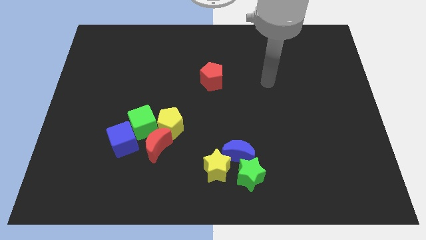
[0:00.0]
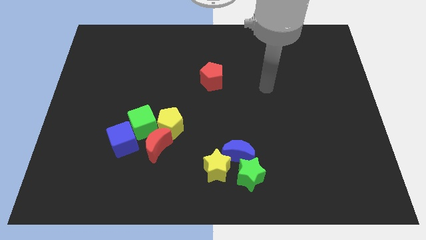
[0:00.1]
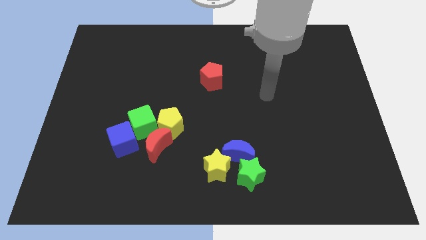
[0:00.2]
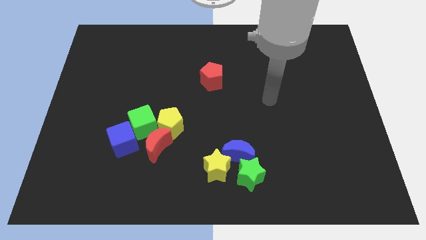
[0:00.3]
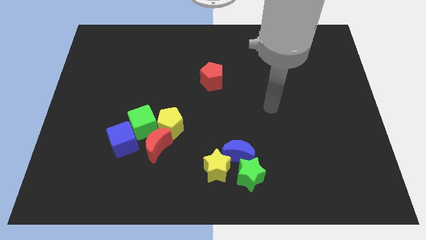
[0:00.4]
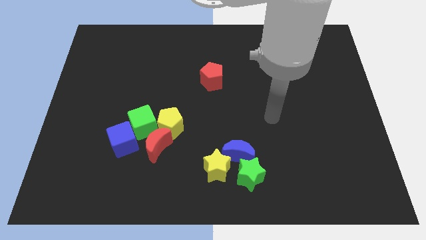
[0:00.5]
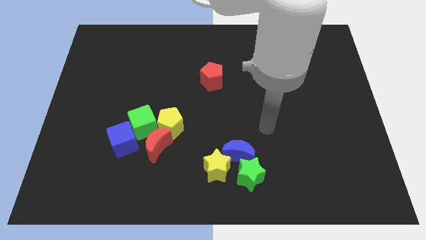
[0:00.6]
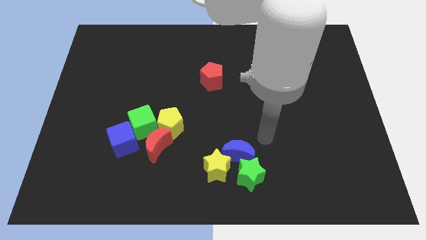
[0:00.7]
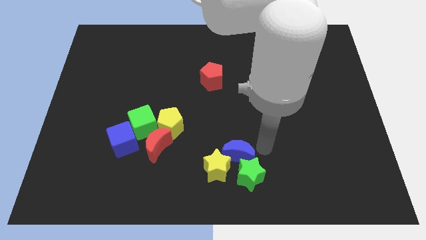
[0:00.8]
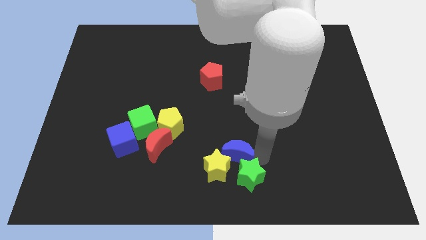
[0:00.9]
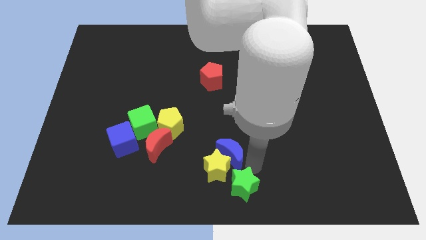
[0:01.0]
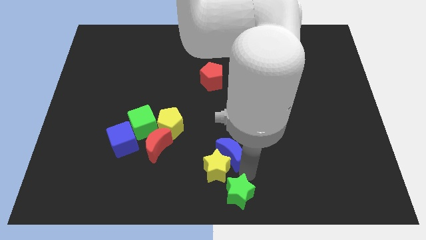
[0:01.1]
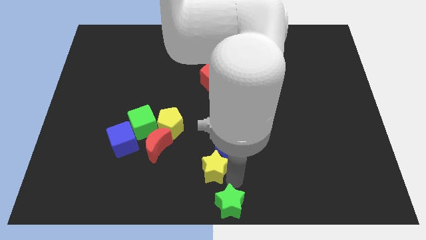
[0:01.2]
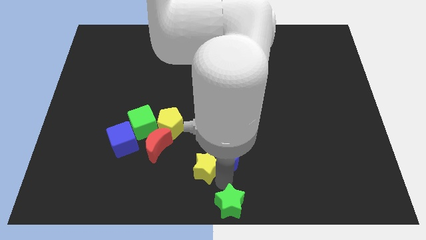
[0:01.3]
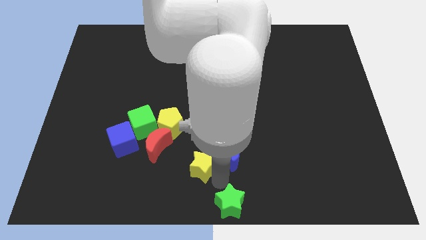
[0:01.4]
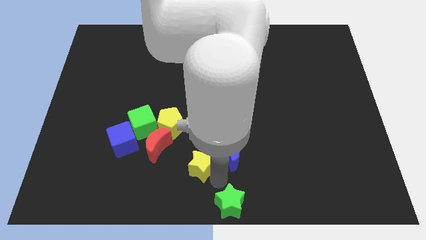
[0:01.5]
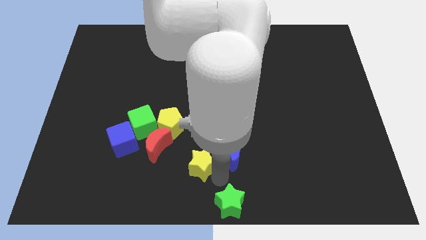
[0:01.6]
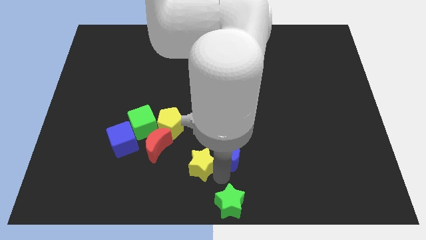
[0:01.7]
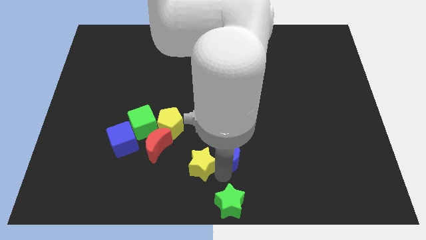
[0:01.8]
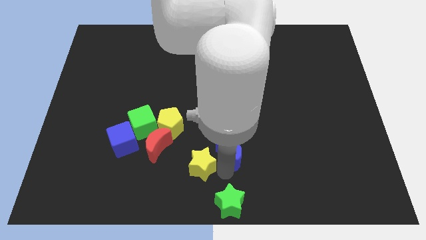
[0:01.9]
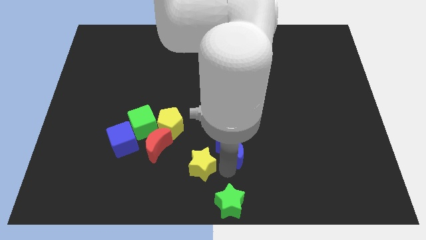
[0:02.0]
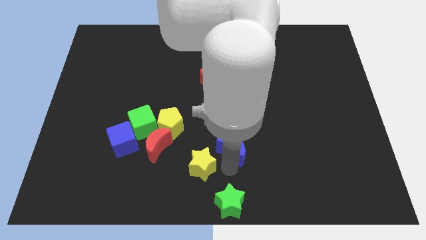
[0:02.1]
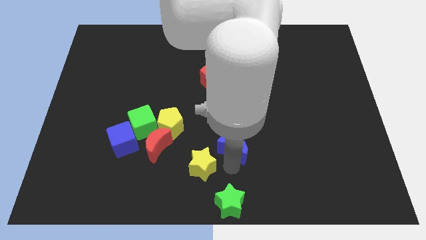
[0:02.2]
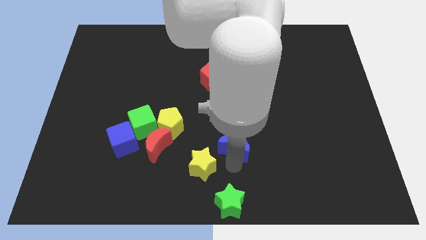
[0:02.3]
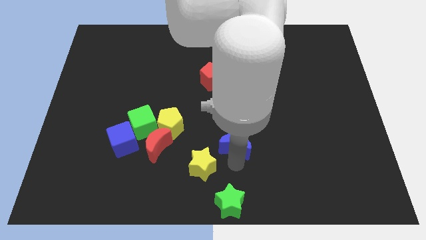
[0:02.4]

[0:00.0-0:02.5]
separate the blue moon from the green star and yellow star

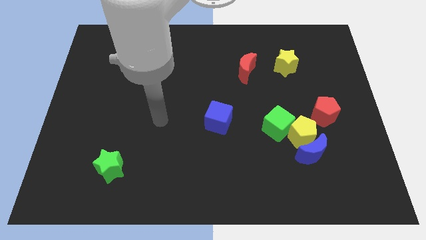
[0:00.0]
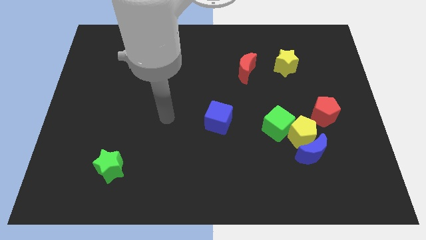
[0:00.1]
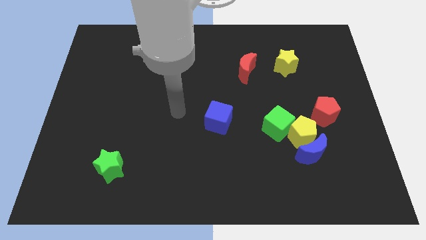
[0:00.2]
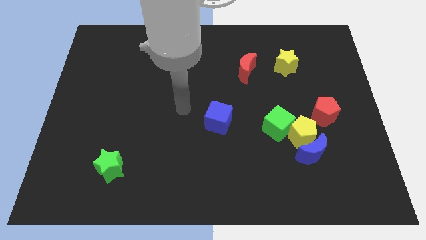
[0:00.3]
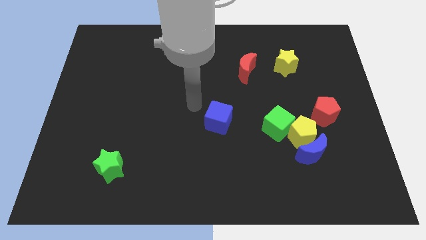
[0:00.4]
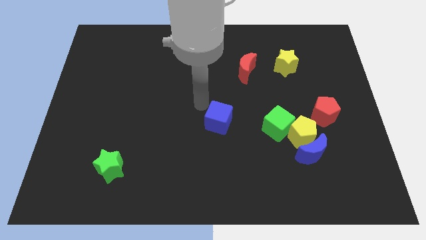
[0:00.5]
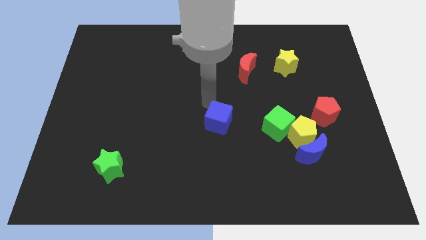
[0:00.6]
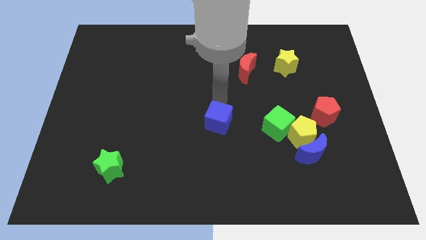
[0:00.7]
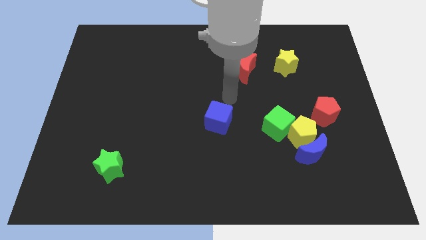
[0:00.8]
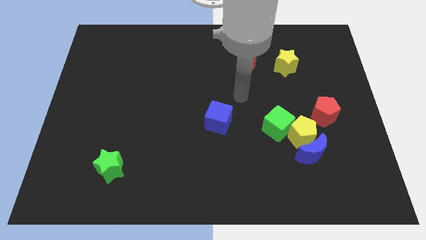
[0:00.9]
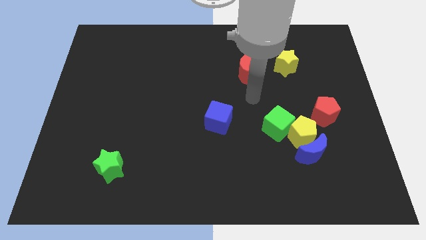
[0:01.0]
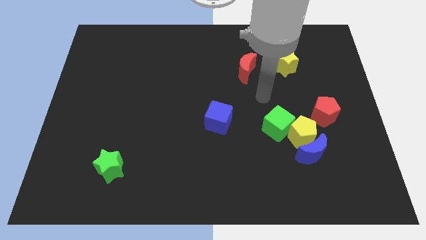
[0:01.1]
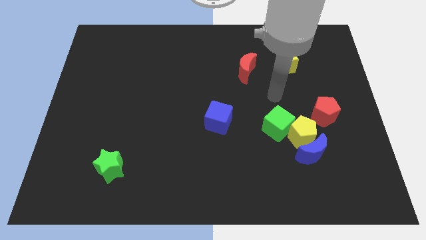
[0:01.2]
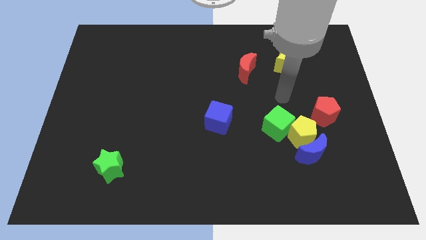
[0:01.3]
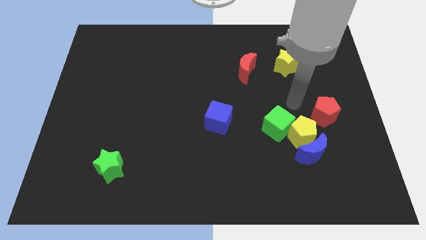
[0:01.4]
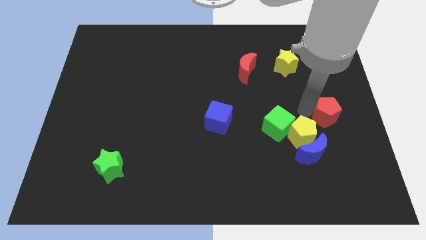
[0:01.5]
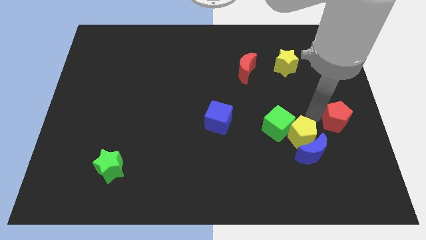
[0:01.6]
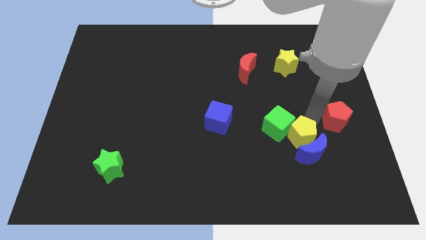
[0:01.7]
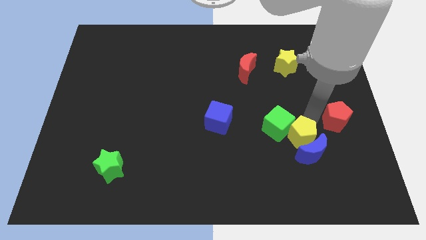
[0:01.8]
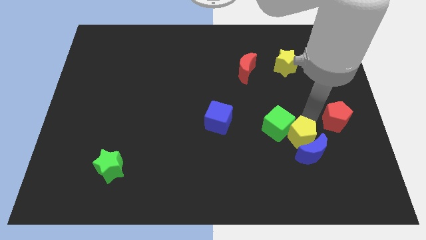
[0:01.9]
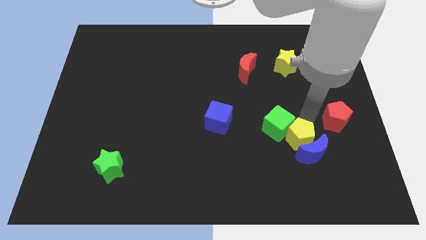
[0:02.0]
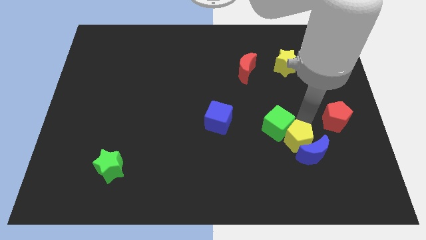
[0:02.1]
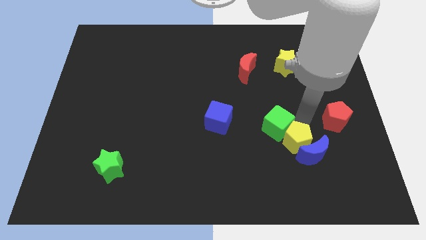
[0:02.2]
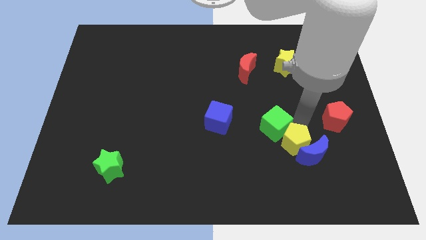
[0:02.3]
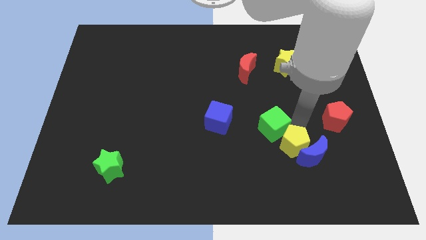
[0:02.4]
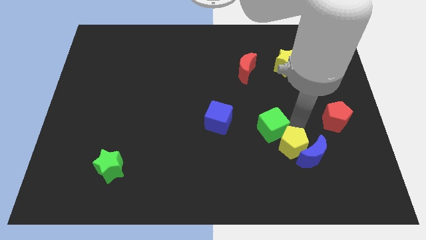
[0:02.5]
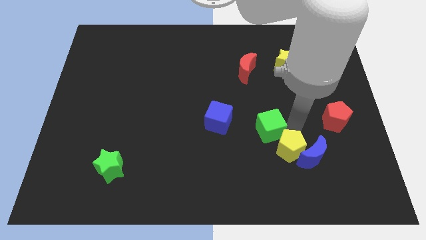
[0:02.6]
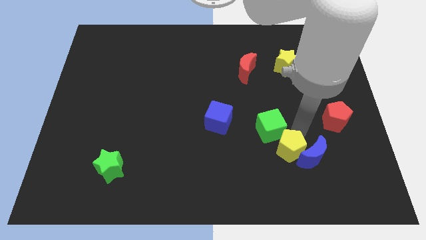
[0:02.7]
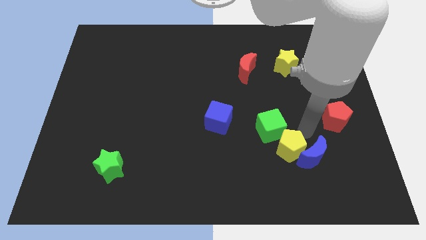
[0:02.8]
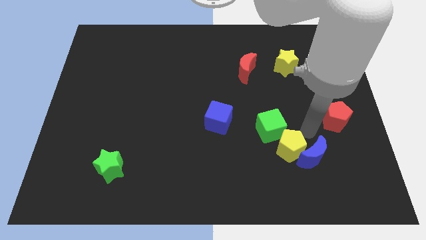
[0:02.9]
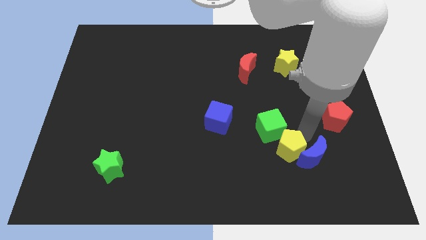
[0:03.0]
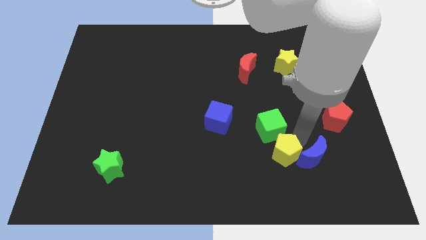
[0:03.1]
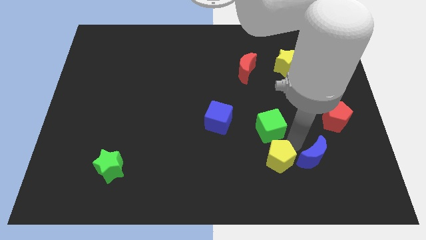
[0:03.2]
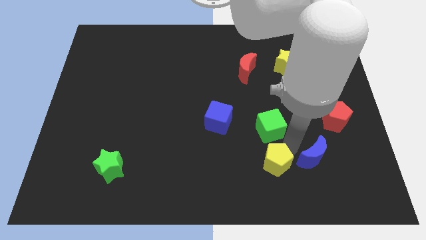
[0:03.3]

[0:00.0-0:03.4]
pull the yellow pentagon apart from the group of blocks

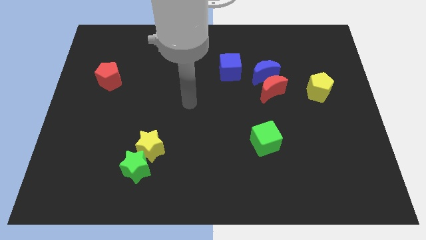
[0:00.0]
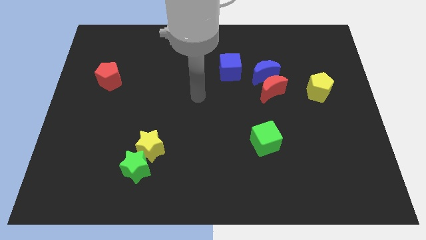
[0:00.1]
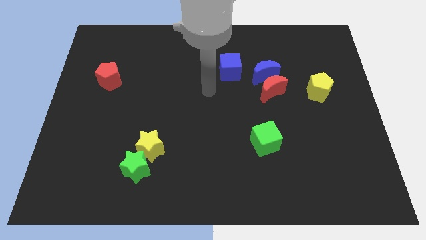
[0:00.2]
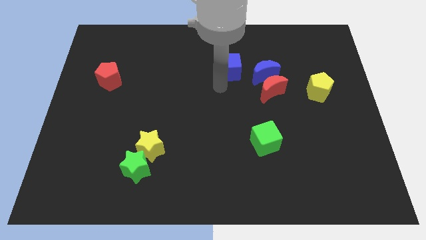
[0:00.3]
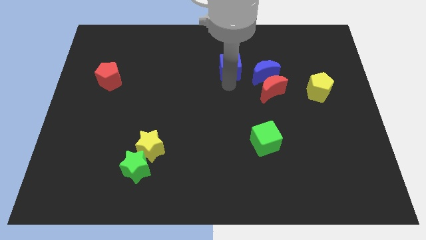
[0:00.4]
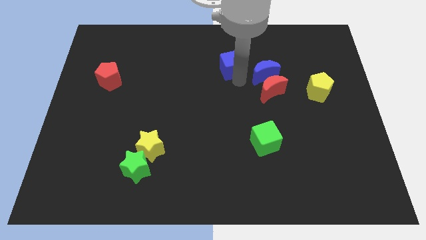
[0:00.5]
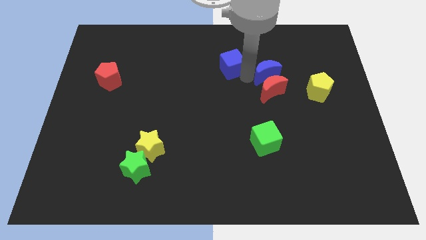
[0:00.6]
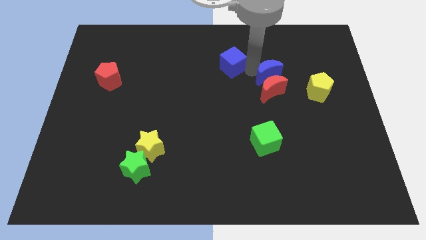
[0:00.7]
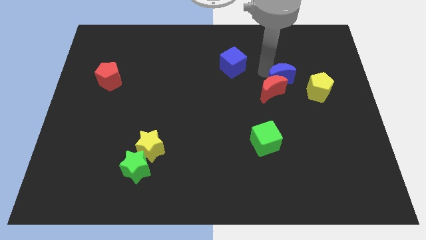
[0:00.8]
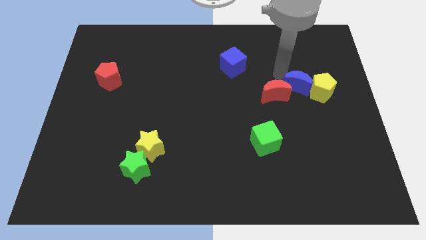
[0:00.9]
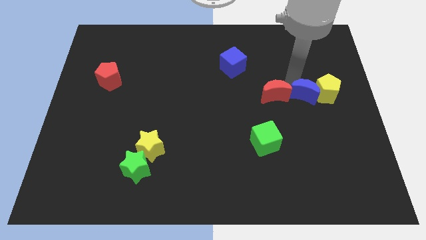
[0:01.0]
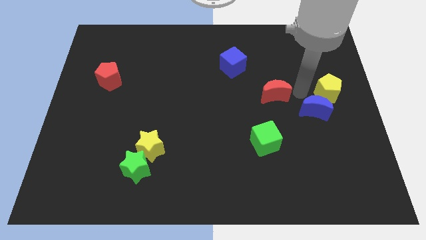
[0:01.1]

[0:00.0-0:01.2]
move the red moon away from the blue moon

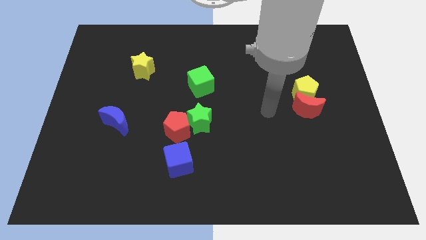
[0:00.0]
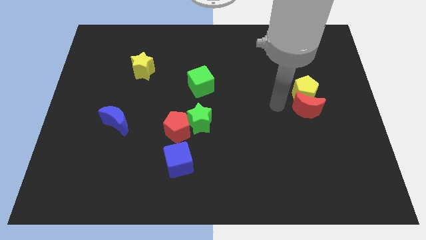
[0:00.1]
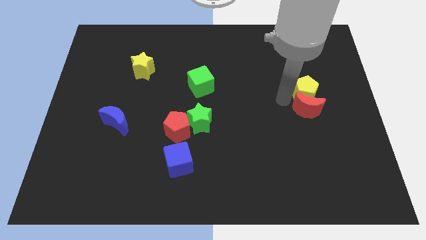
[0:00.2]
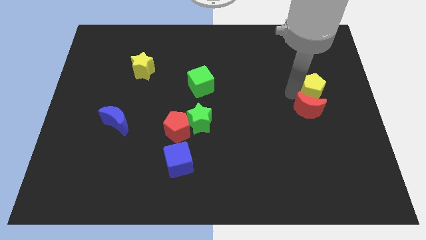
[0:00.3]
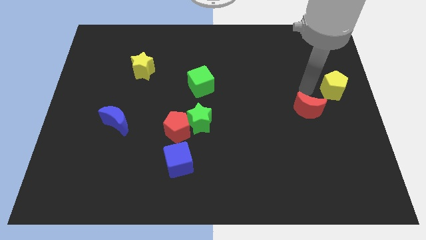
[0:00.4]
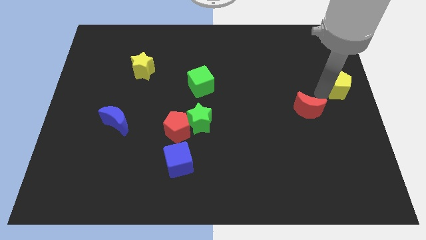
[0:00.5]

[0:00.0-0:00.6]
pull the red moon apart from the yellow pentagon

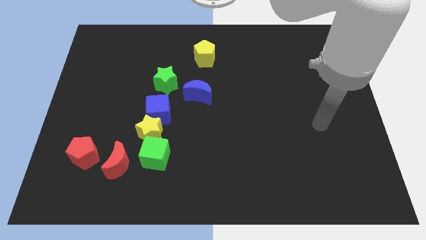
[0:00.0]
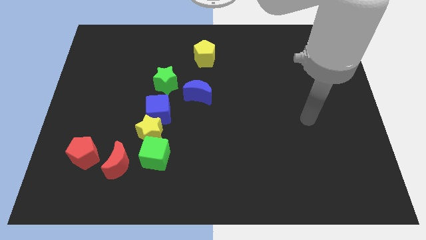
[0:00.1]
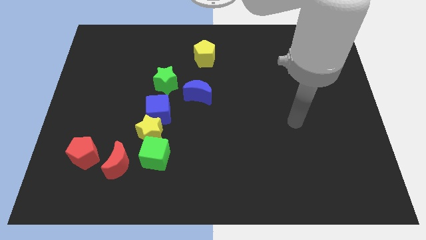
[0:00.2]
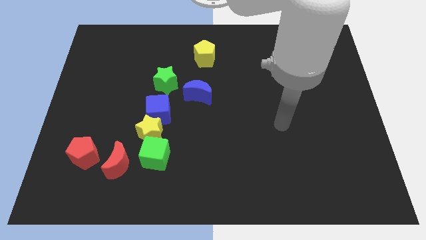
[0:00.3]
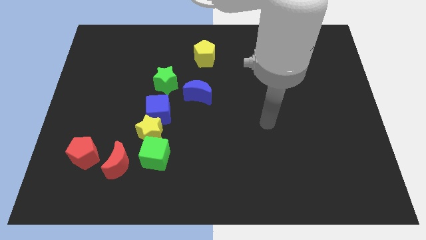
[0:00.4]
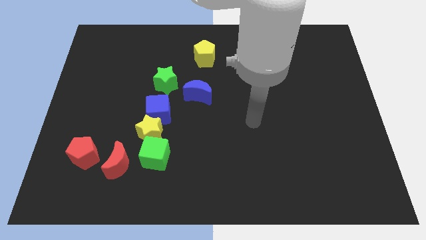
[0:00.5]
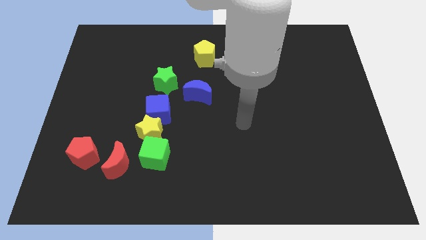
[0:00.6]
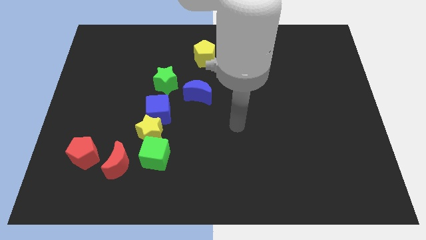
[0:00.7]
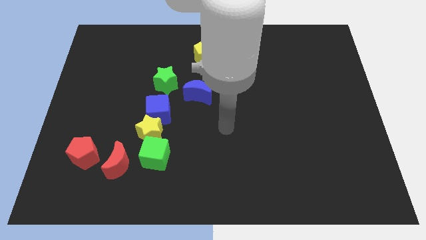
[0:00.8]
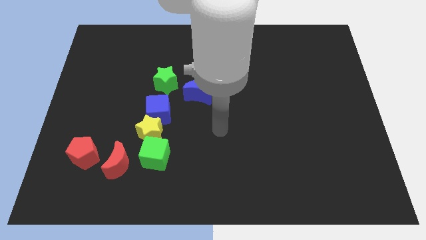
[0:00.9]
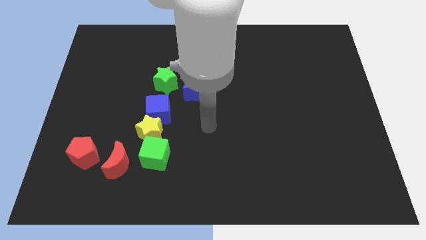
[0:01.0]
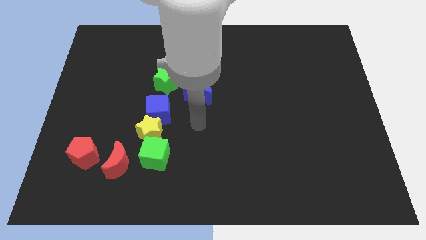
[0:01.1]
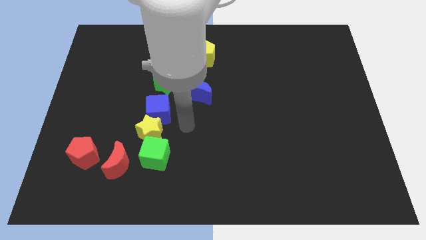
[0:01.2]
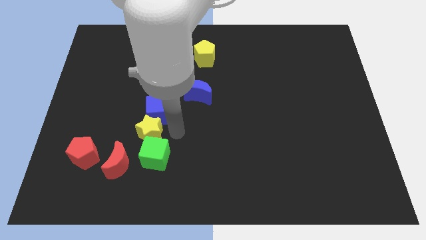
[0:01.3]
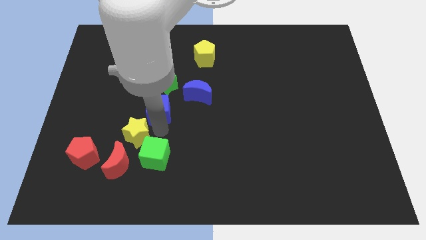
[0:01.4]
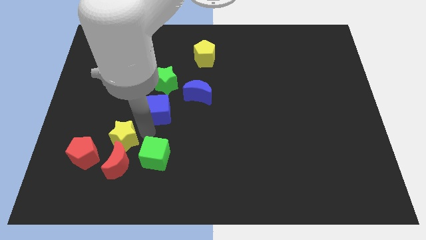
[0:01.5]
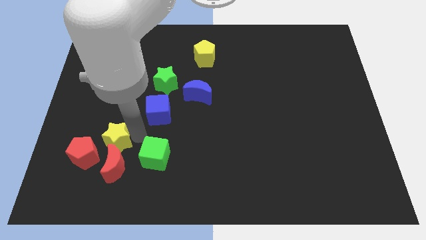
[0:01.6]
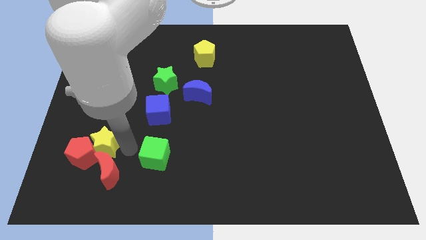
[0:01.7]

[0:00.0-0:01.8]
pull the green cube apart from the yellow star and red moon
